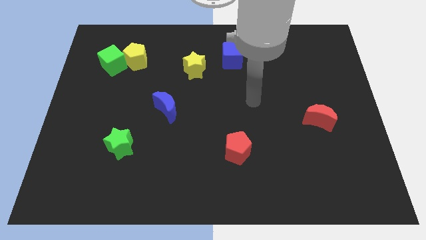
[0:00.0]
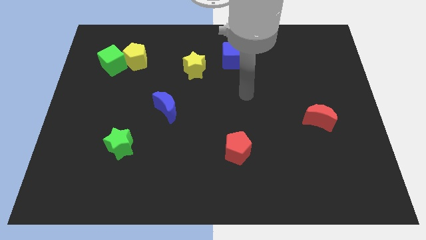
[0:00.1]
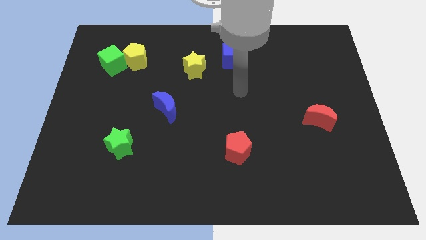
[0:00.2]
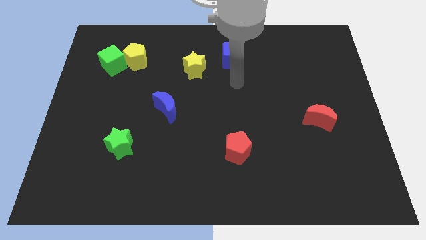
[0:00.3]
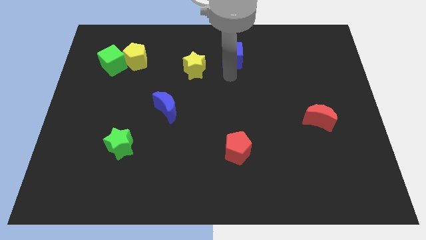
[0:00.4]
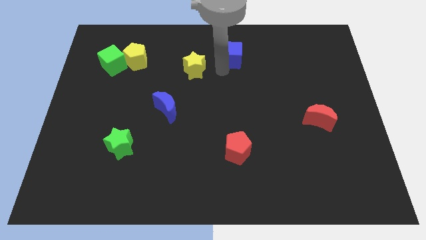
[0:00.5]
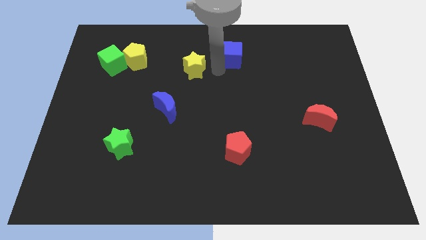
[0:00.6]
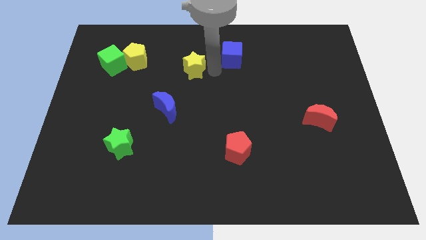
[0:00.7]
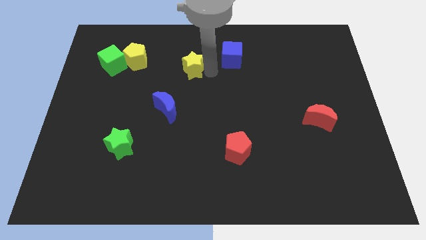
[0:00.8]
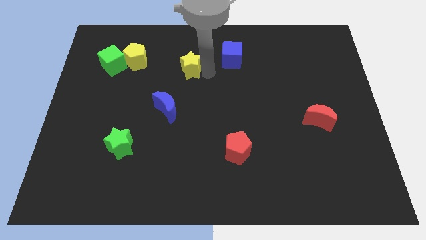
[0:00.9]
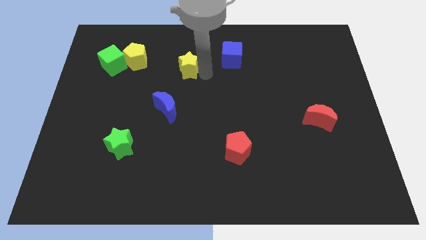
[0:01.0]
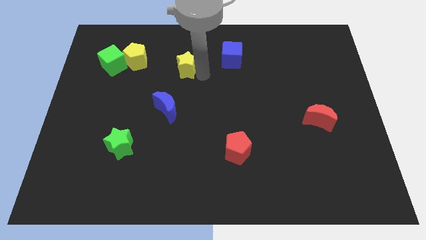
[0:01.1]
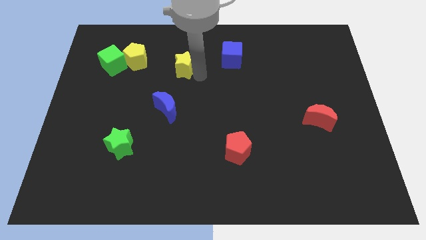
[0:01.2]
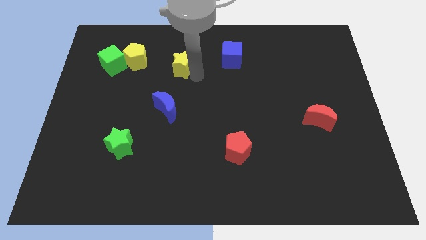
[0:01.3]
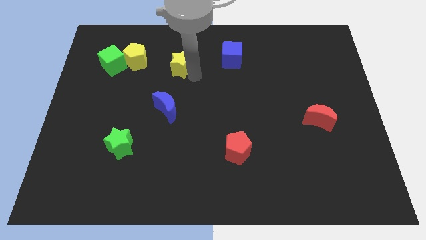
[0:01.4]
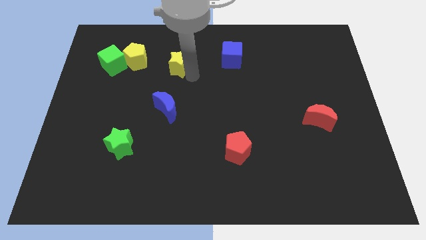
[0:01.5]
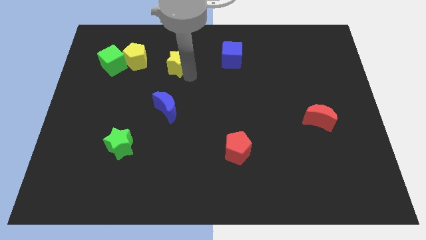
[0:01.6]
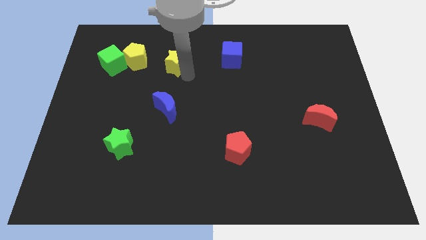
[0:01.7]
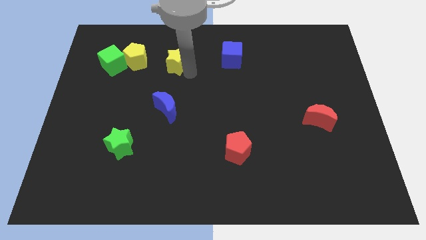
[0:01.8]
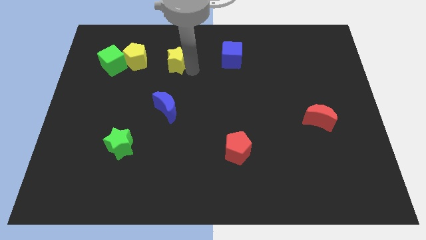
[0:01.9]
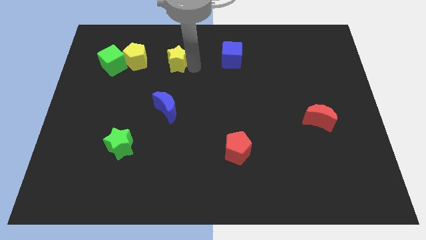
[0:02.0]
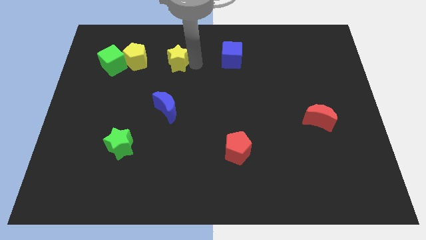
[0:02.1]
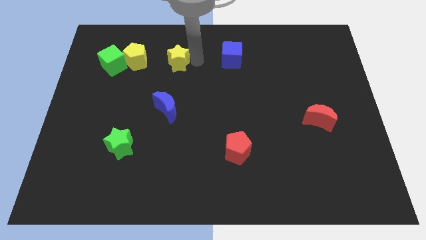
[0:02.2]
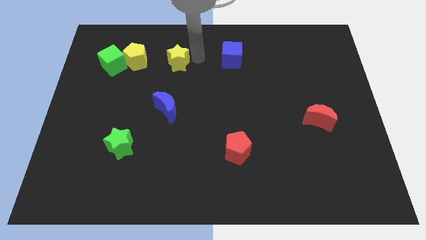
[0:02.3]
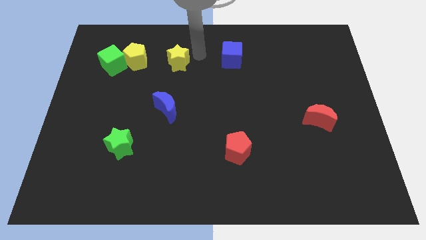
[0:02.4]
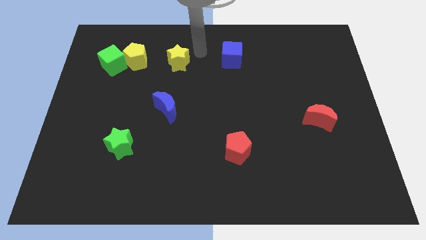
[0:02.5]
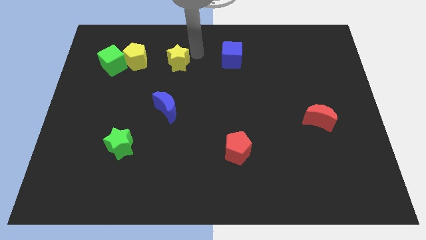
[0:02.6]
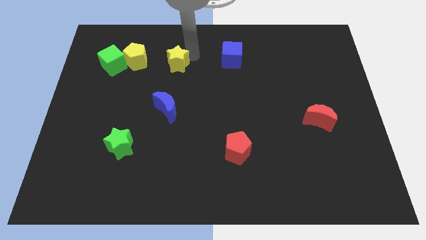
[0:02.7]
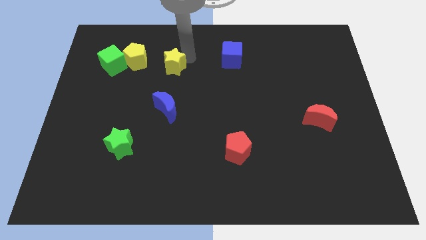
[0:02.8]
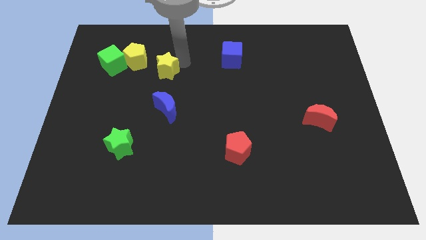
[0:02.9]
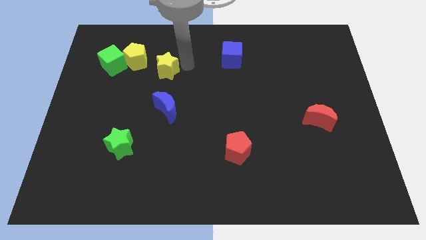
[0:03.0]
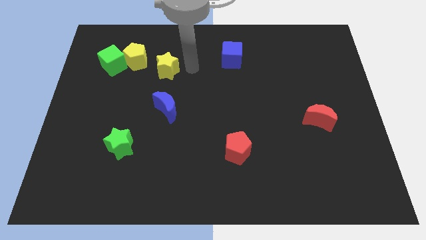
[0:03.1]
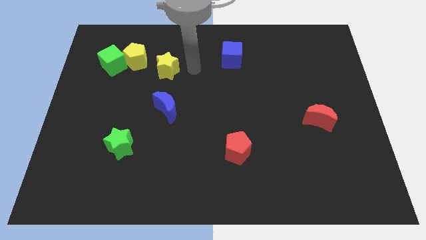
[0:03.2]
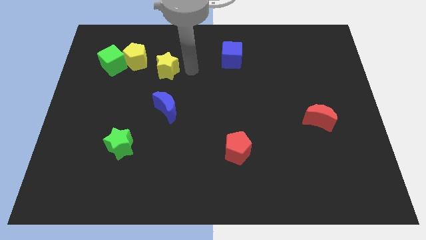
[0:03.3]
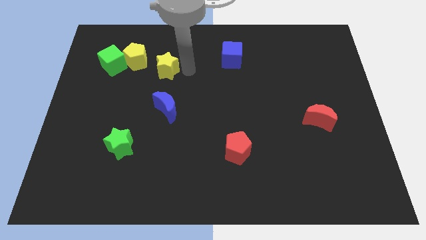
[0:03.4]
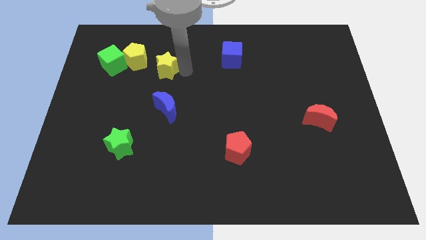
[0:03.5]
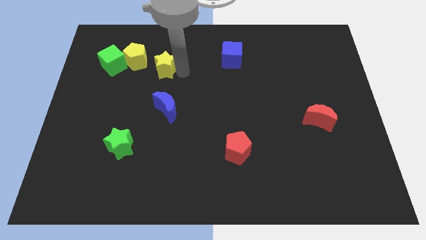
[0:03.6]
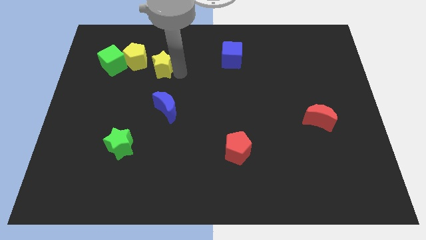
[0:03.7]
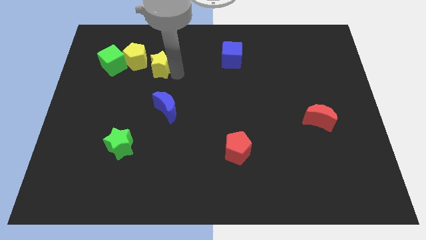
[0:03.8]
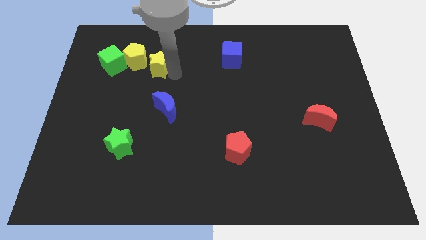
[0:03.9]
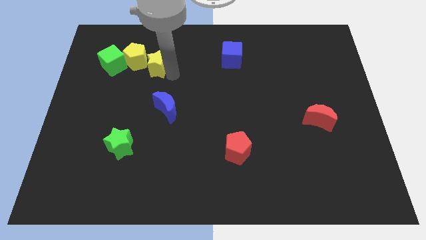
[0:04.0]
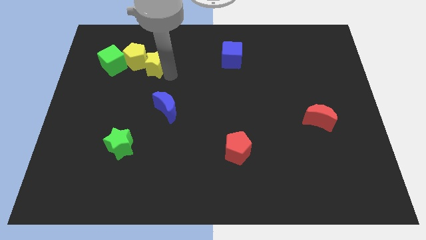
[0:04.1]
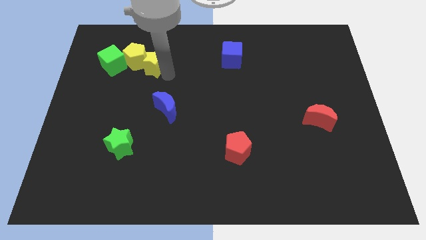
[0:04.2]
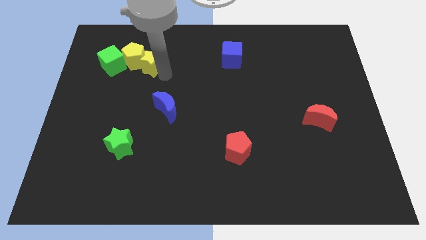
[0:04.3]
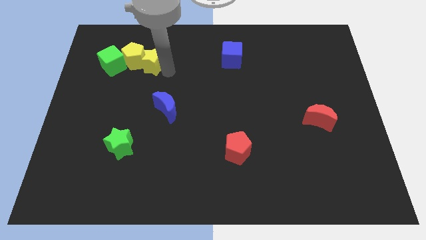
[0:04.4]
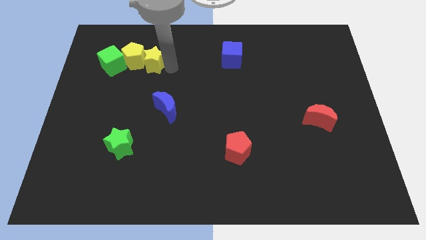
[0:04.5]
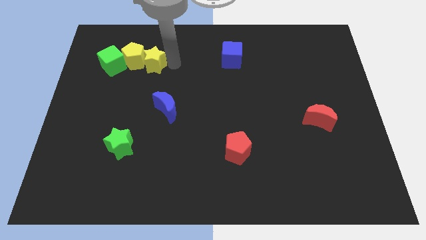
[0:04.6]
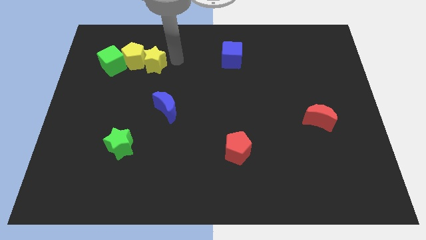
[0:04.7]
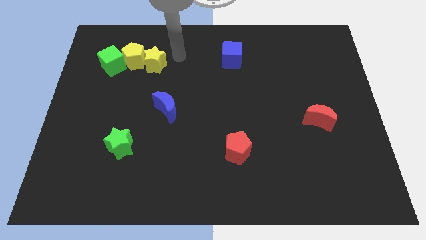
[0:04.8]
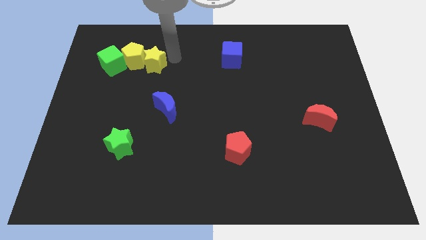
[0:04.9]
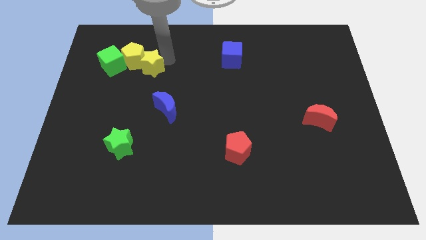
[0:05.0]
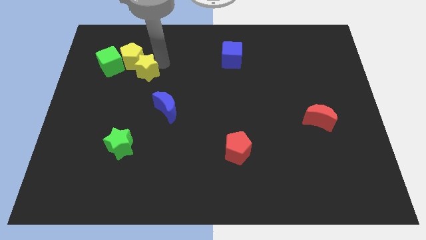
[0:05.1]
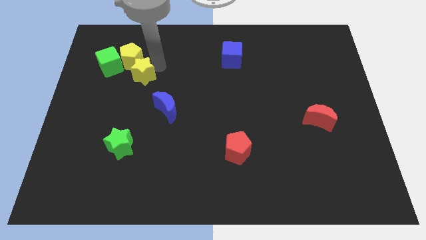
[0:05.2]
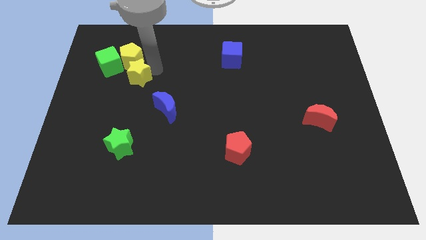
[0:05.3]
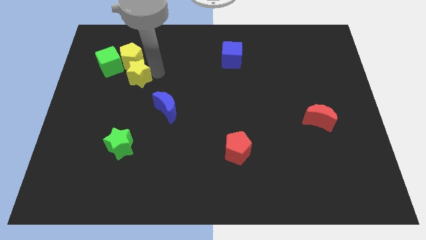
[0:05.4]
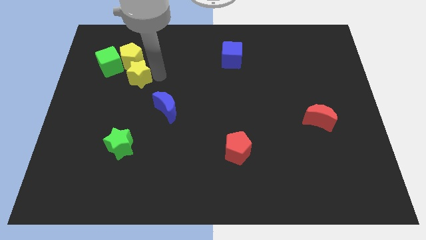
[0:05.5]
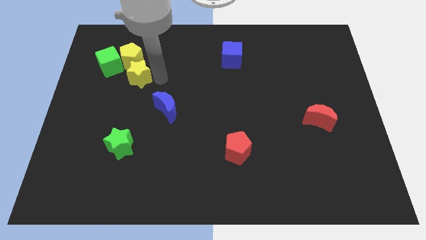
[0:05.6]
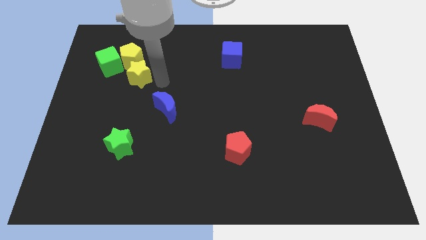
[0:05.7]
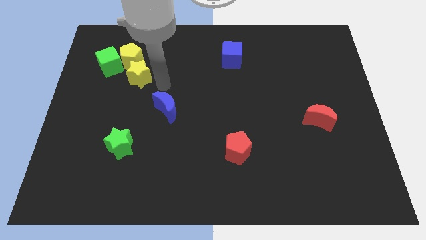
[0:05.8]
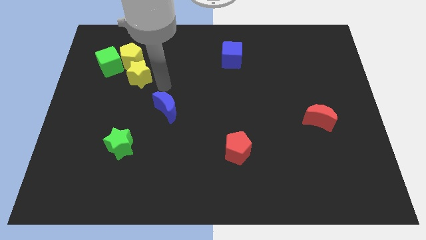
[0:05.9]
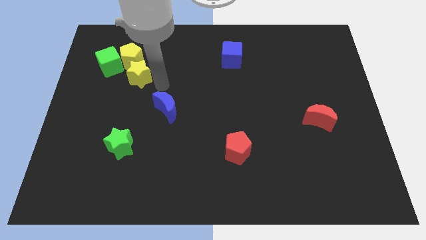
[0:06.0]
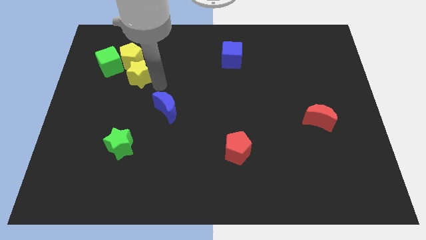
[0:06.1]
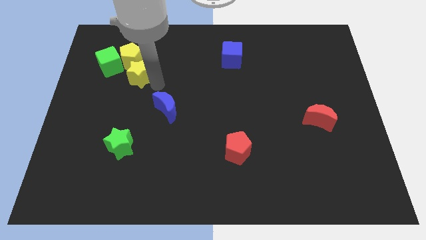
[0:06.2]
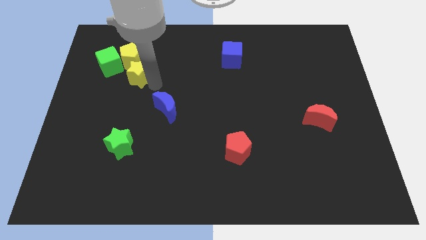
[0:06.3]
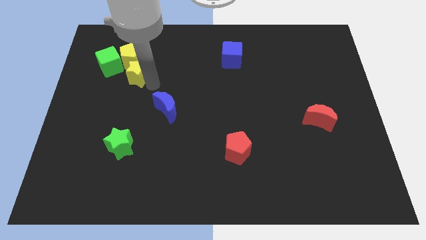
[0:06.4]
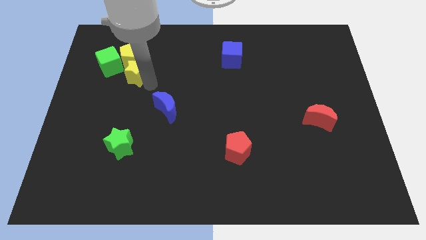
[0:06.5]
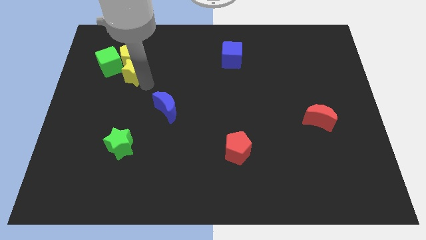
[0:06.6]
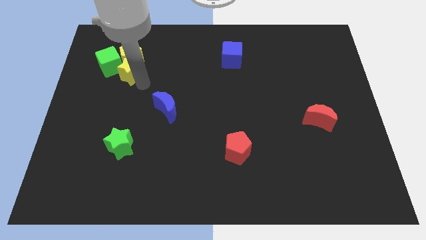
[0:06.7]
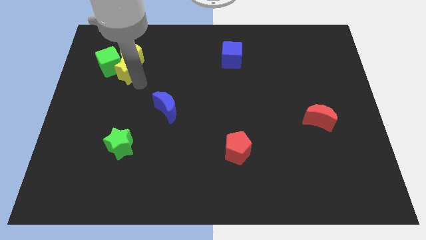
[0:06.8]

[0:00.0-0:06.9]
slide the yellow star to the green cube

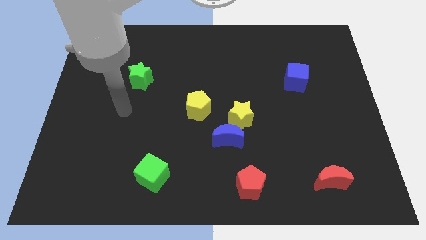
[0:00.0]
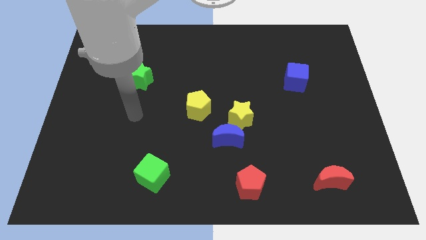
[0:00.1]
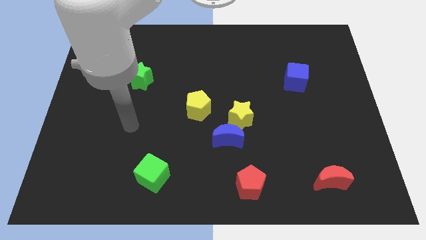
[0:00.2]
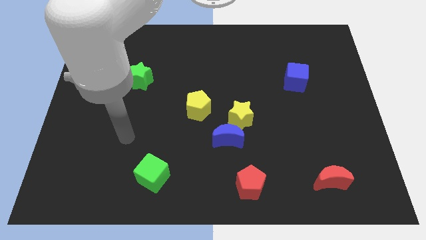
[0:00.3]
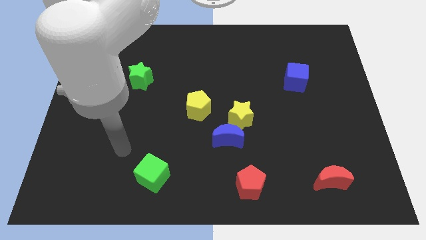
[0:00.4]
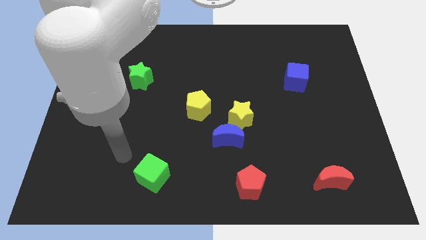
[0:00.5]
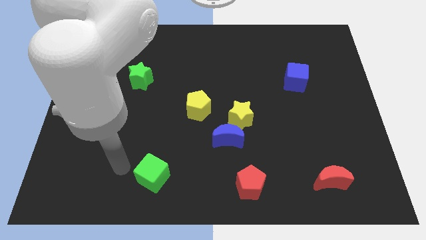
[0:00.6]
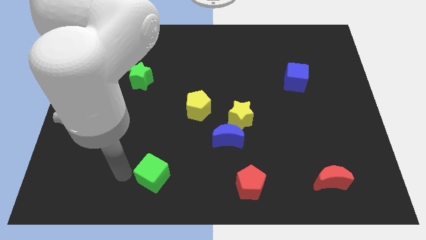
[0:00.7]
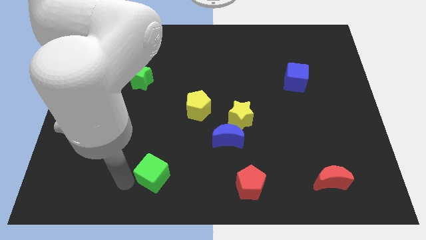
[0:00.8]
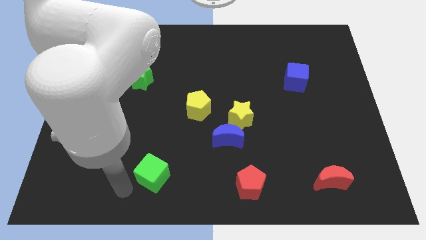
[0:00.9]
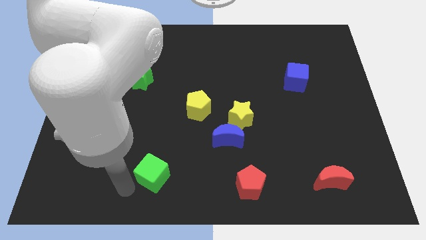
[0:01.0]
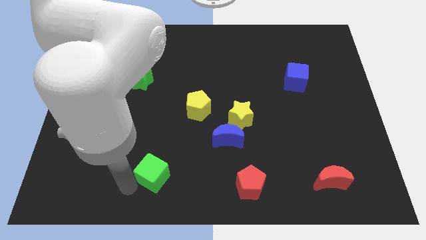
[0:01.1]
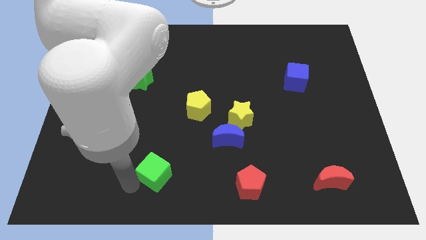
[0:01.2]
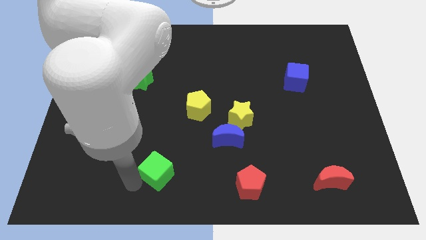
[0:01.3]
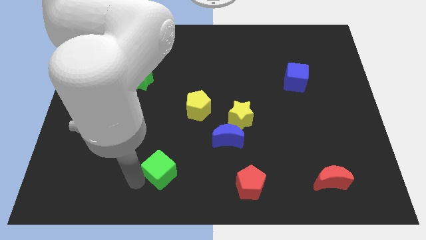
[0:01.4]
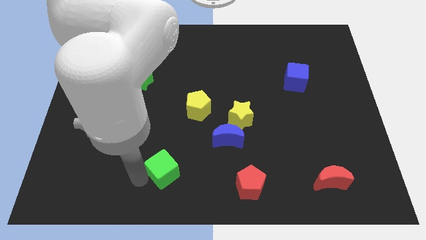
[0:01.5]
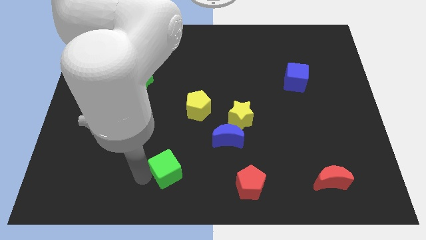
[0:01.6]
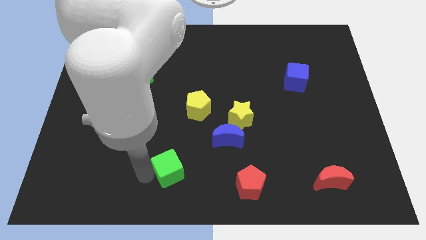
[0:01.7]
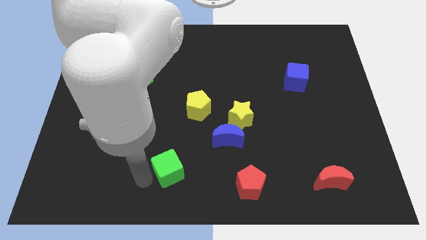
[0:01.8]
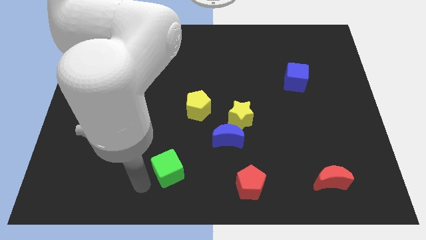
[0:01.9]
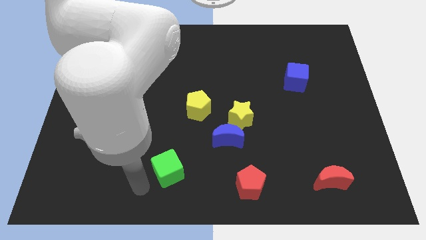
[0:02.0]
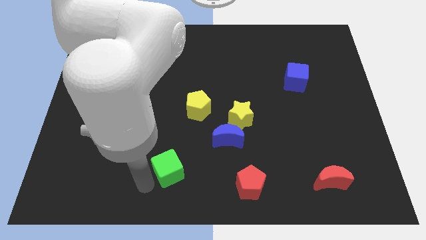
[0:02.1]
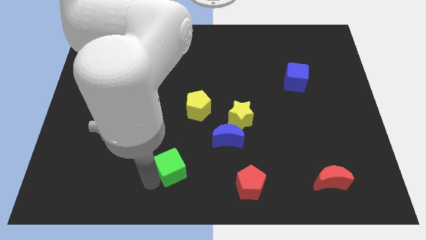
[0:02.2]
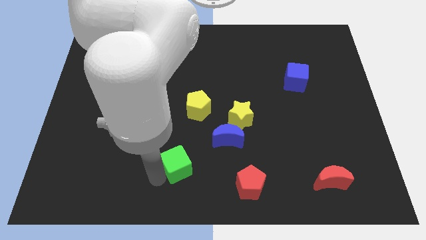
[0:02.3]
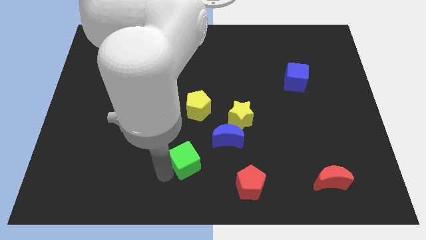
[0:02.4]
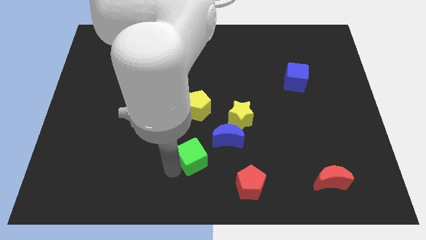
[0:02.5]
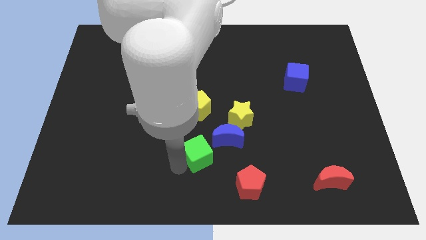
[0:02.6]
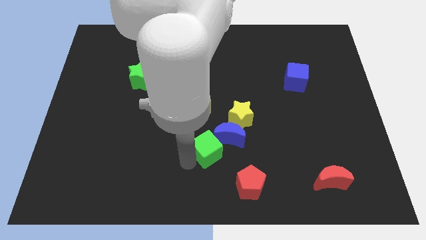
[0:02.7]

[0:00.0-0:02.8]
push the green cube close to the blue moon
